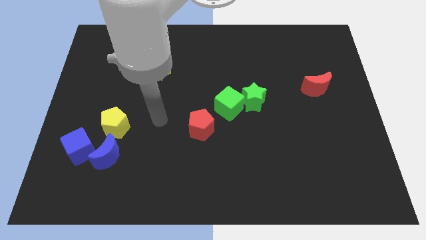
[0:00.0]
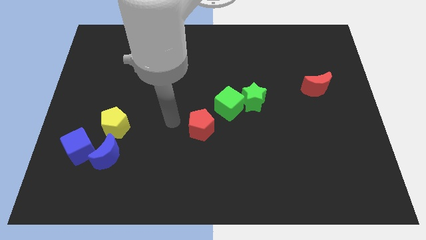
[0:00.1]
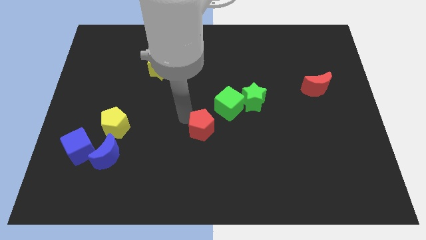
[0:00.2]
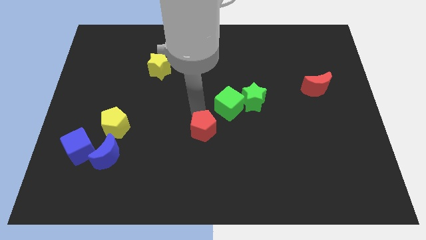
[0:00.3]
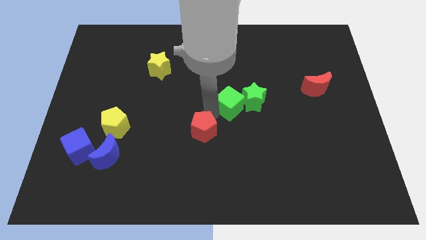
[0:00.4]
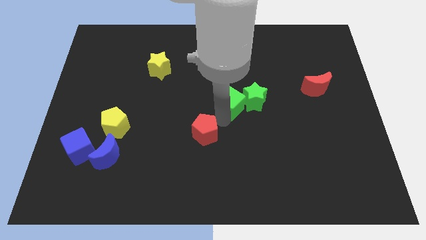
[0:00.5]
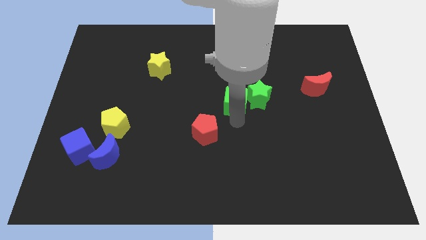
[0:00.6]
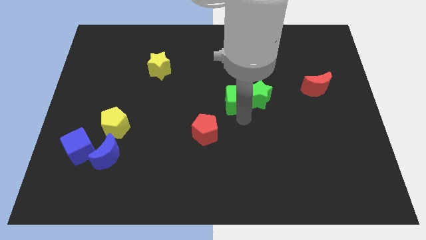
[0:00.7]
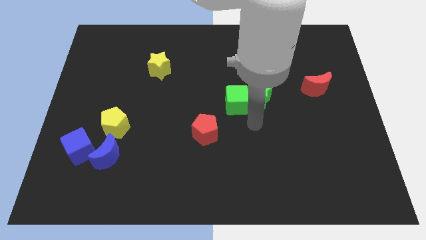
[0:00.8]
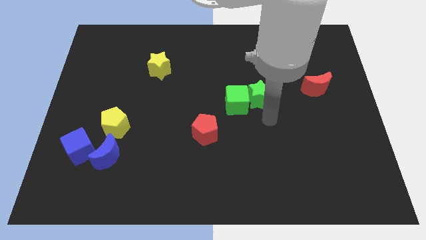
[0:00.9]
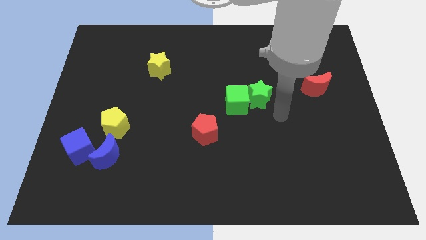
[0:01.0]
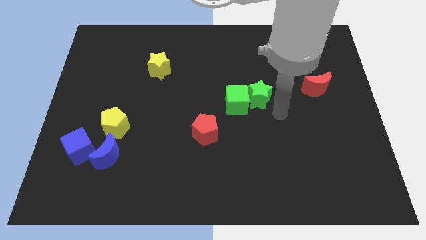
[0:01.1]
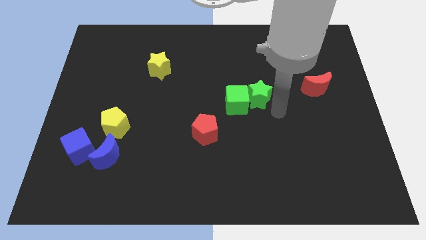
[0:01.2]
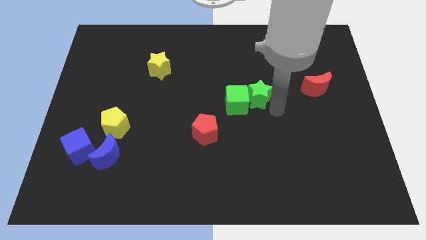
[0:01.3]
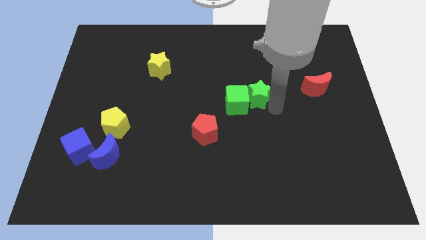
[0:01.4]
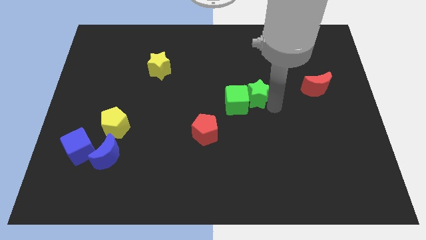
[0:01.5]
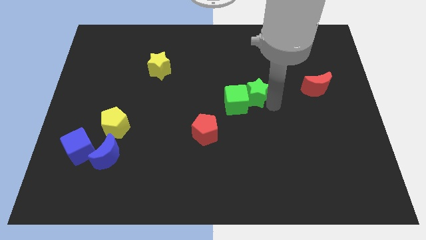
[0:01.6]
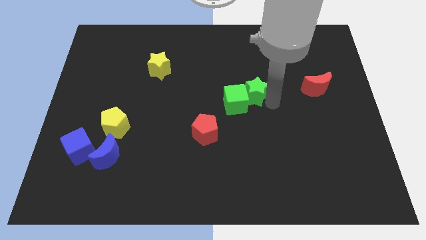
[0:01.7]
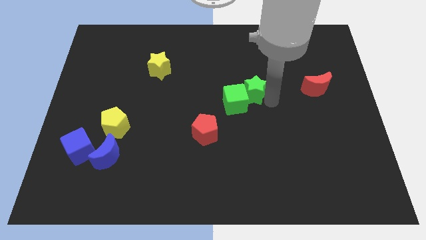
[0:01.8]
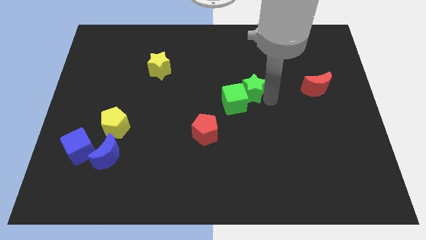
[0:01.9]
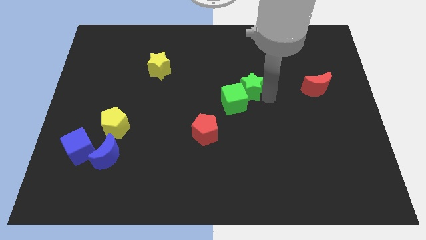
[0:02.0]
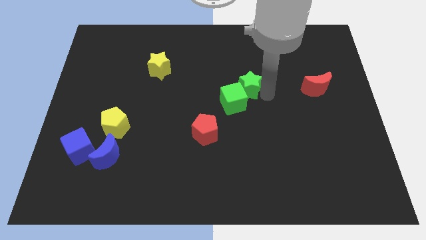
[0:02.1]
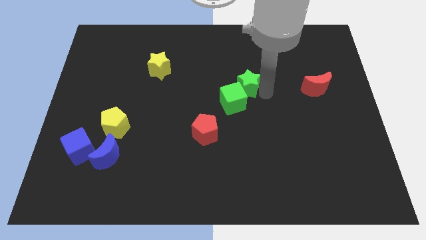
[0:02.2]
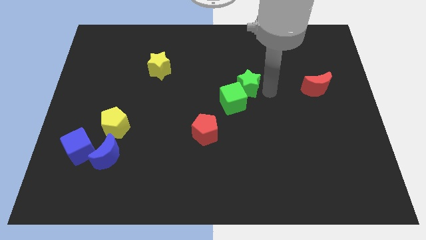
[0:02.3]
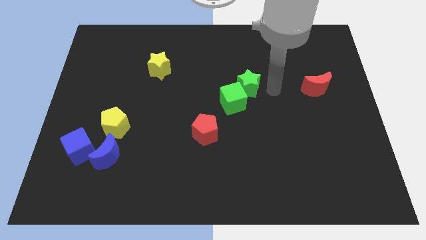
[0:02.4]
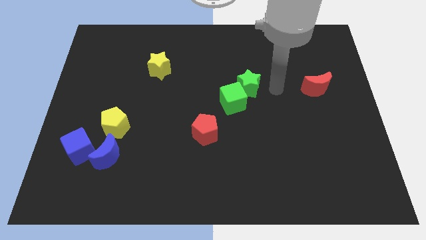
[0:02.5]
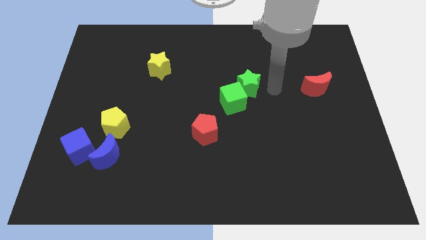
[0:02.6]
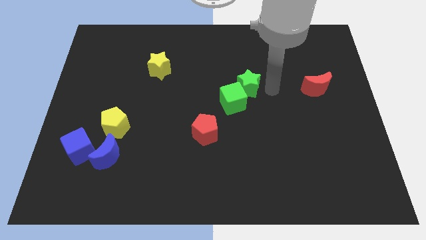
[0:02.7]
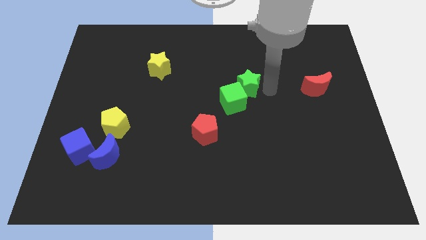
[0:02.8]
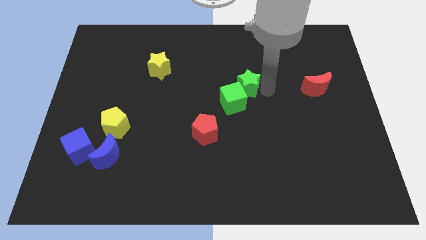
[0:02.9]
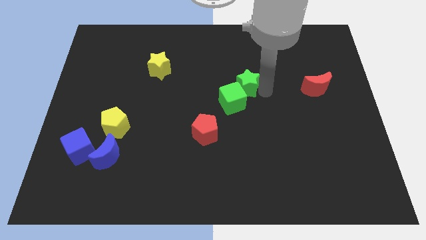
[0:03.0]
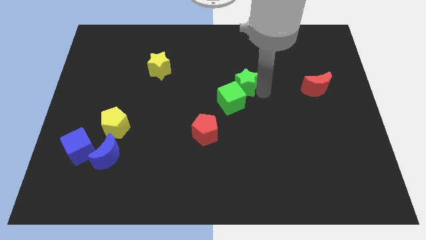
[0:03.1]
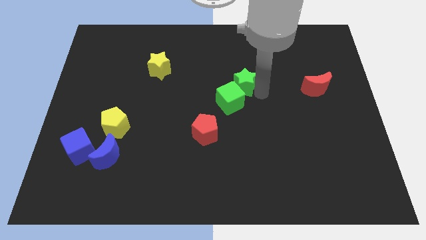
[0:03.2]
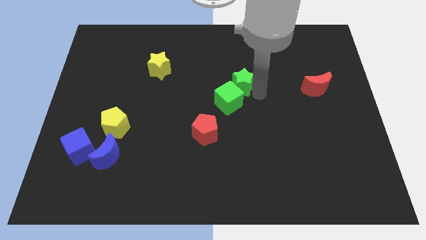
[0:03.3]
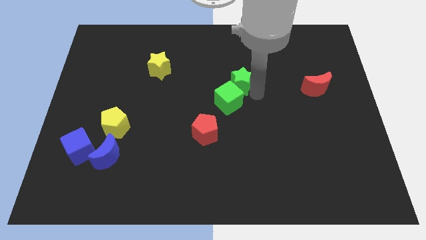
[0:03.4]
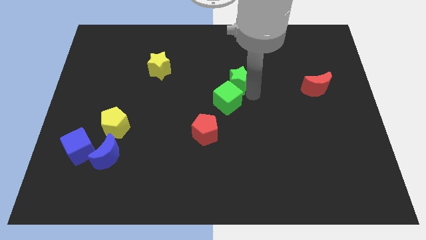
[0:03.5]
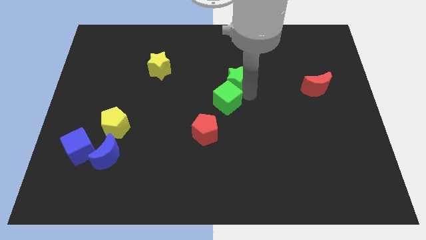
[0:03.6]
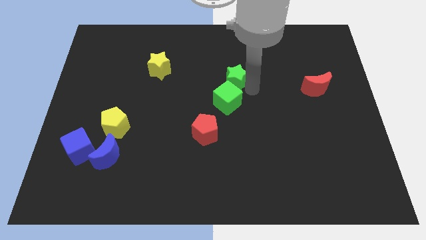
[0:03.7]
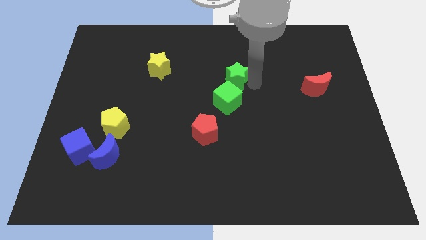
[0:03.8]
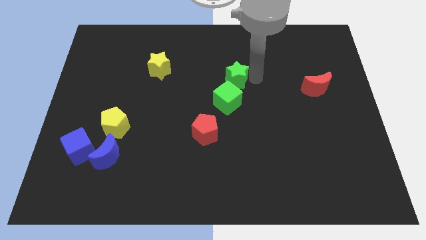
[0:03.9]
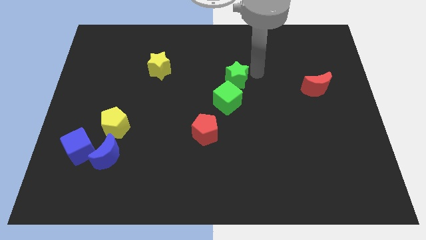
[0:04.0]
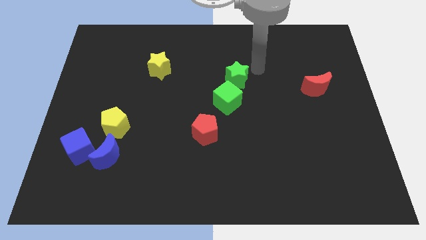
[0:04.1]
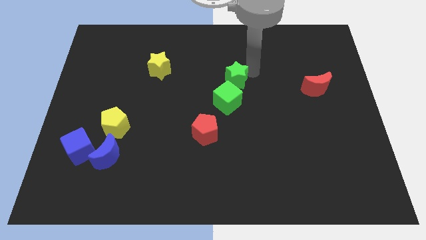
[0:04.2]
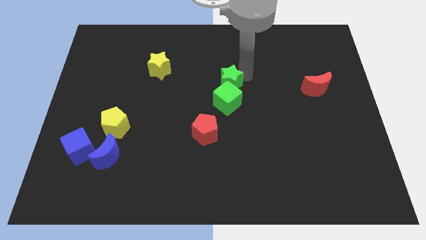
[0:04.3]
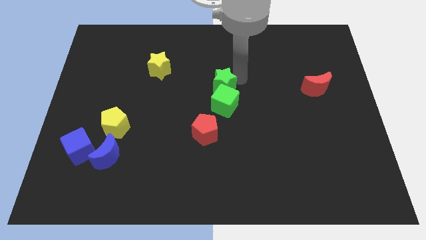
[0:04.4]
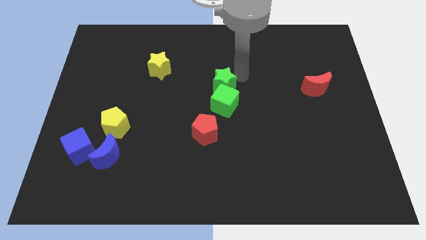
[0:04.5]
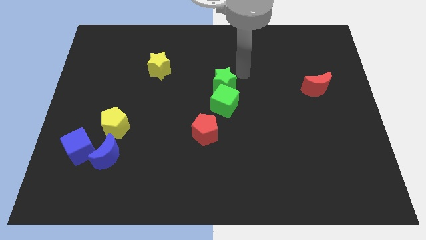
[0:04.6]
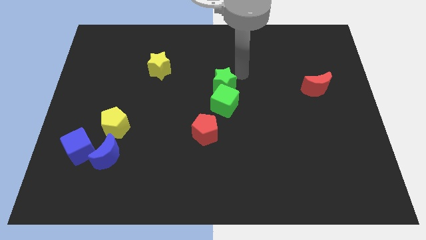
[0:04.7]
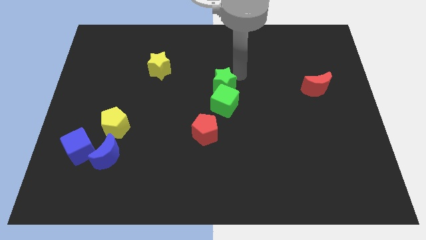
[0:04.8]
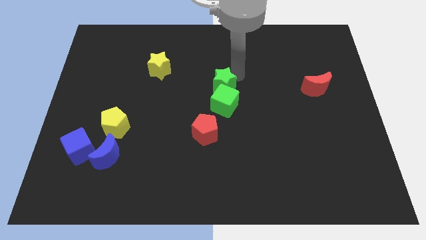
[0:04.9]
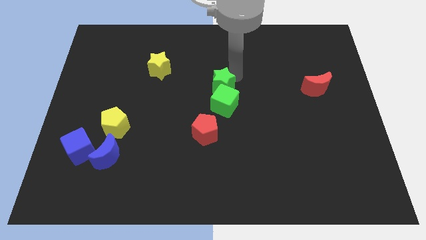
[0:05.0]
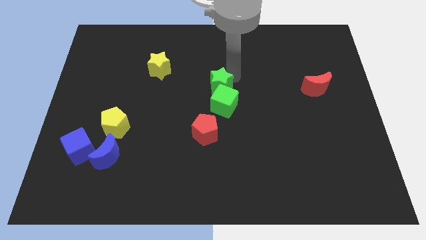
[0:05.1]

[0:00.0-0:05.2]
push the green star a bit left

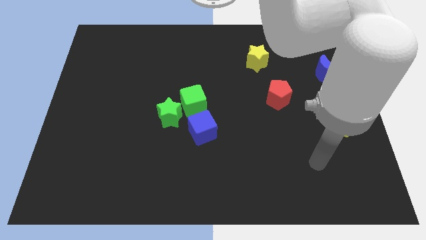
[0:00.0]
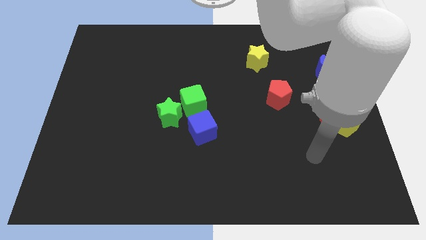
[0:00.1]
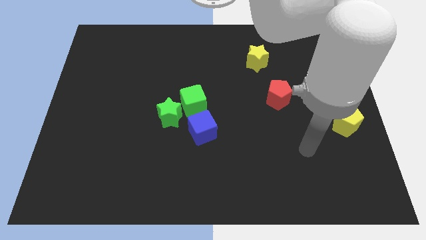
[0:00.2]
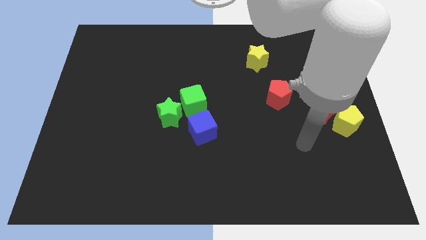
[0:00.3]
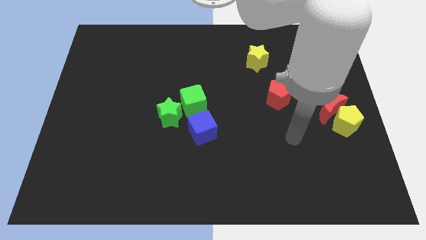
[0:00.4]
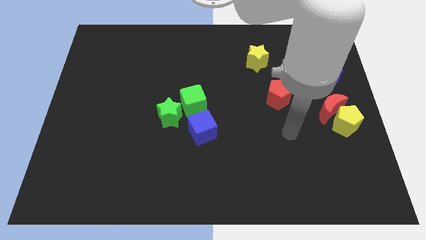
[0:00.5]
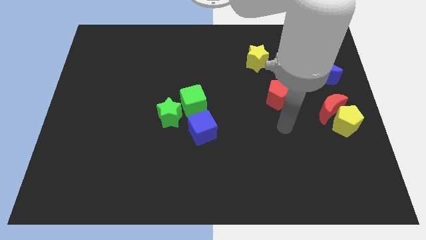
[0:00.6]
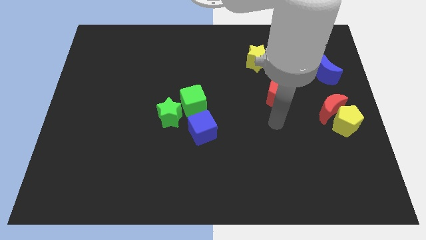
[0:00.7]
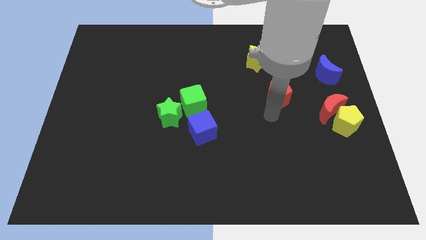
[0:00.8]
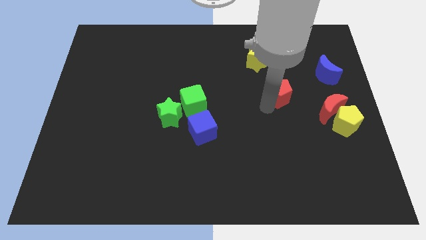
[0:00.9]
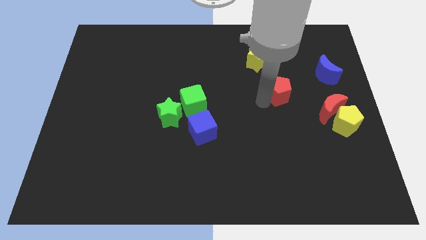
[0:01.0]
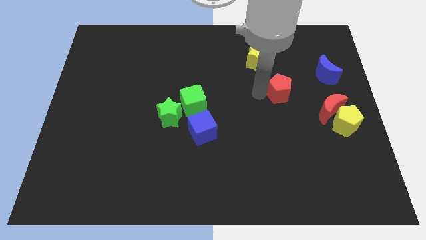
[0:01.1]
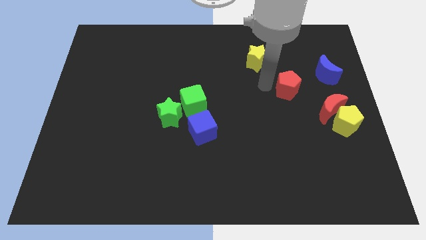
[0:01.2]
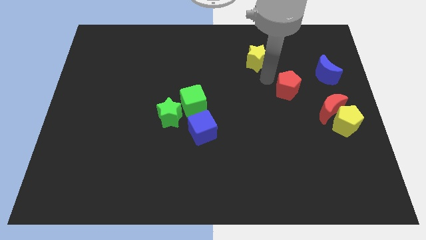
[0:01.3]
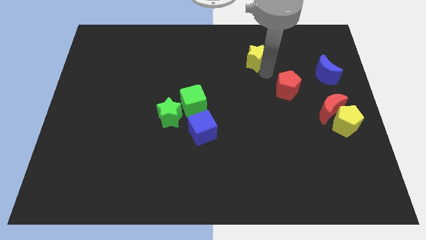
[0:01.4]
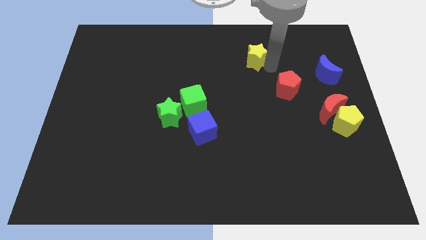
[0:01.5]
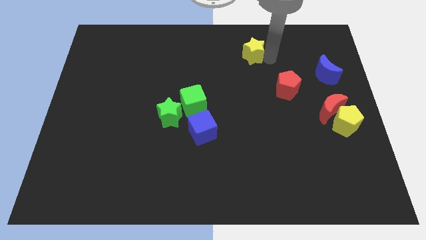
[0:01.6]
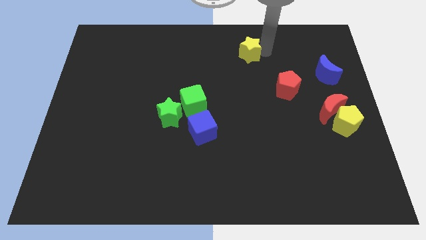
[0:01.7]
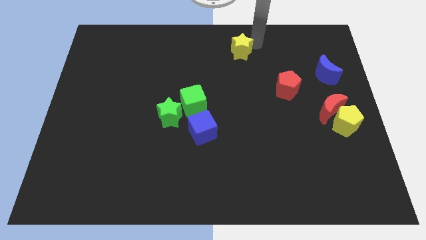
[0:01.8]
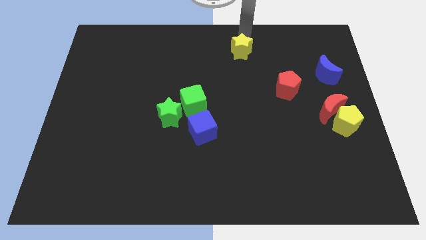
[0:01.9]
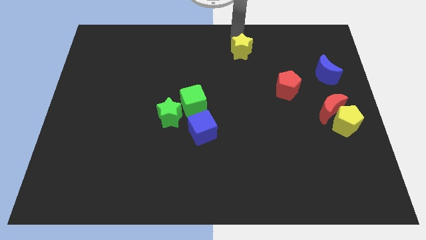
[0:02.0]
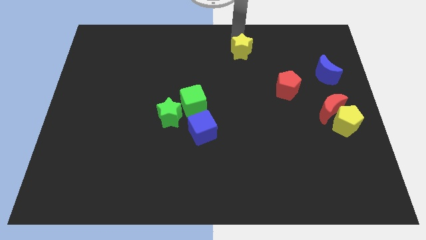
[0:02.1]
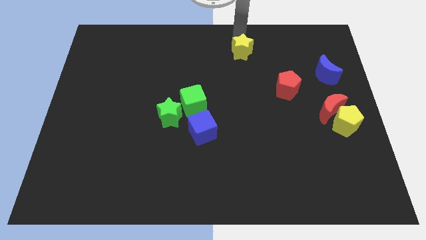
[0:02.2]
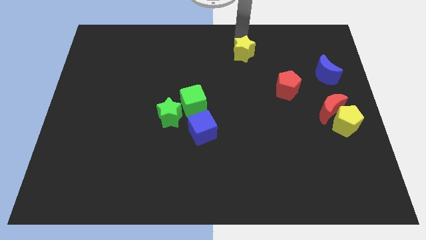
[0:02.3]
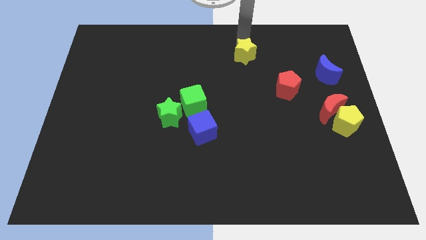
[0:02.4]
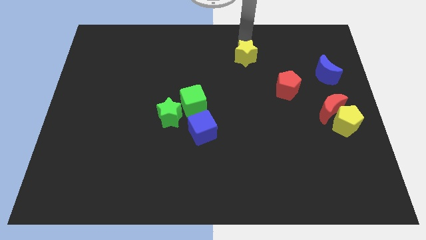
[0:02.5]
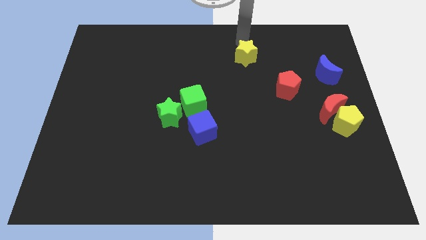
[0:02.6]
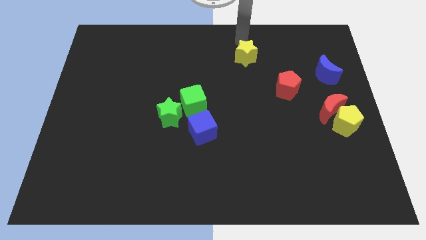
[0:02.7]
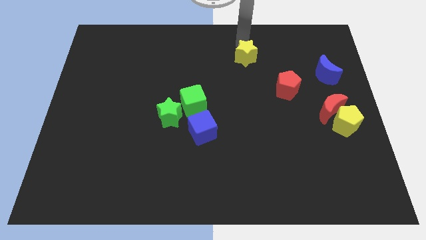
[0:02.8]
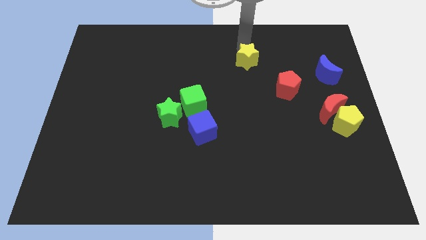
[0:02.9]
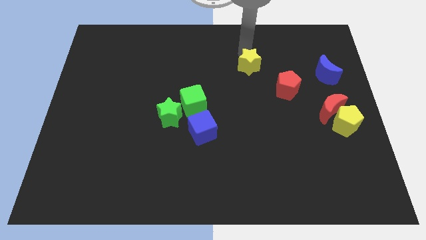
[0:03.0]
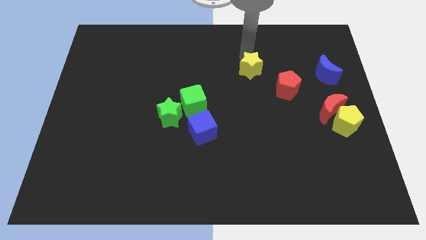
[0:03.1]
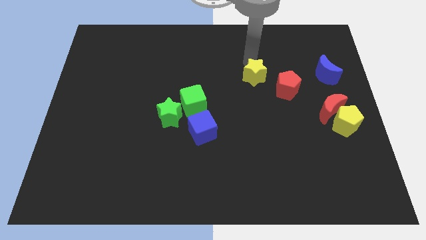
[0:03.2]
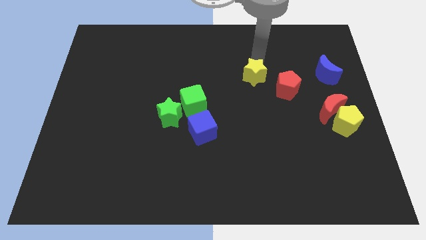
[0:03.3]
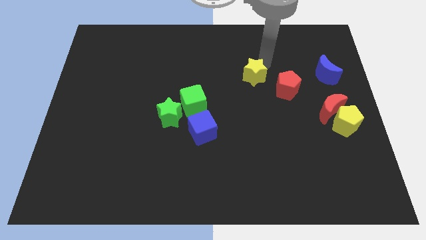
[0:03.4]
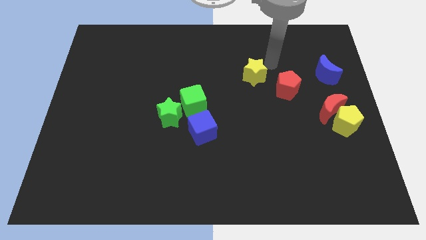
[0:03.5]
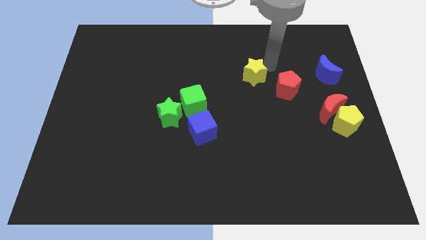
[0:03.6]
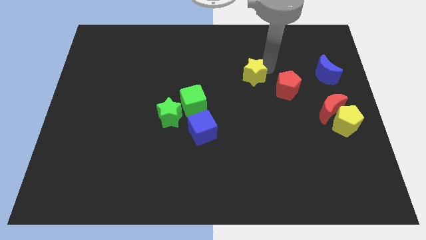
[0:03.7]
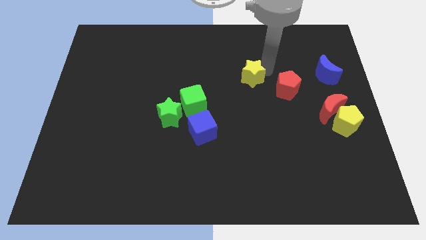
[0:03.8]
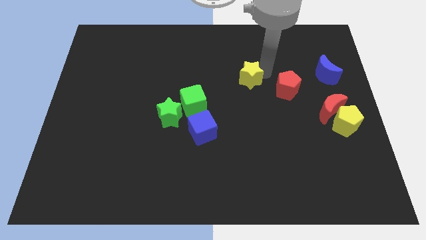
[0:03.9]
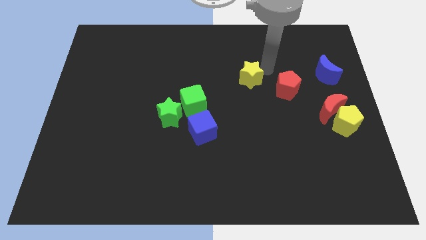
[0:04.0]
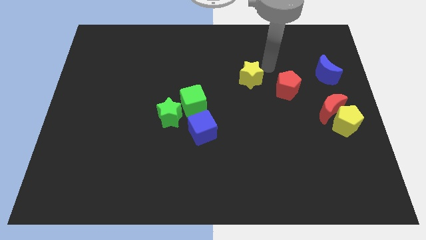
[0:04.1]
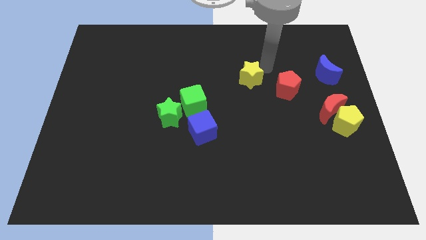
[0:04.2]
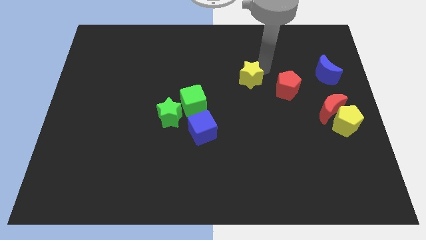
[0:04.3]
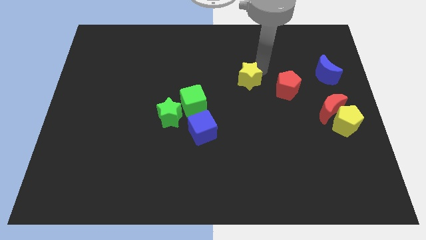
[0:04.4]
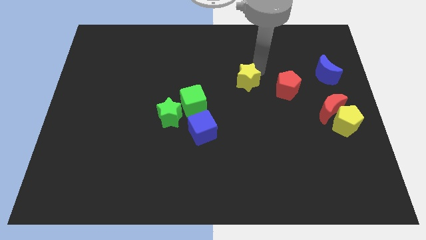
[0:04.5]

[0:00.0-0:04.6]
slide the yellow star down a little bit
